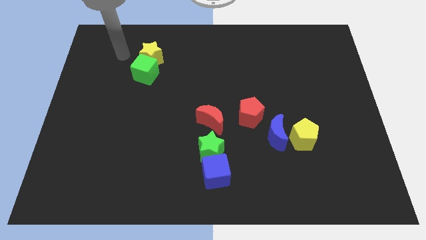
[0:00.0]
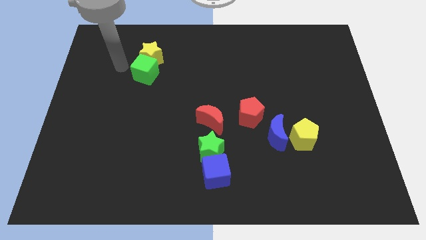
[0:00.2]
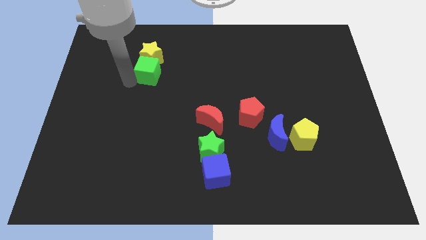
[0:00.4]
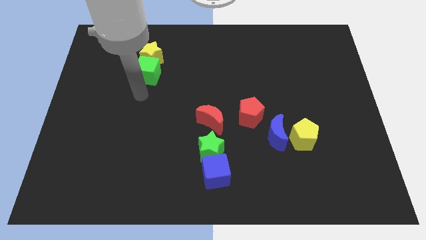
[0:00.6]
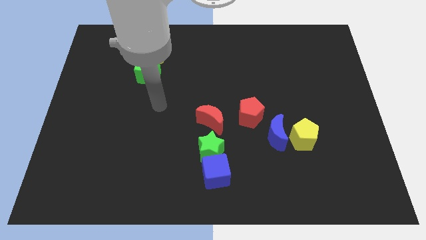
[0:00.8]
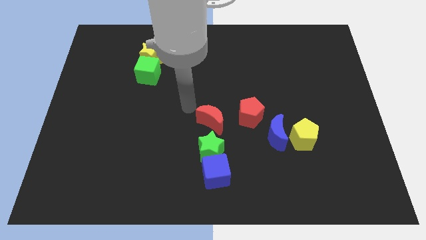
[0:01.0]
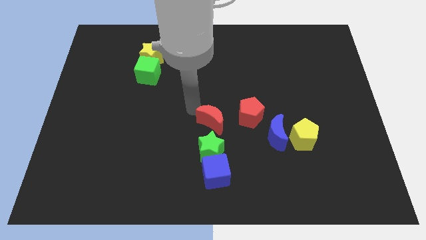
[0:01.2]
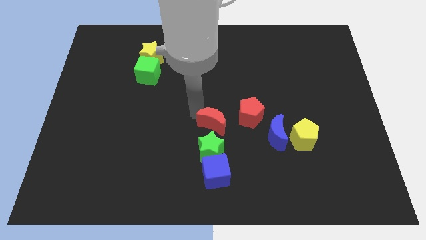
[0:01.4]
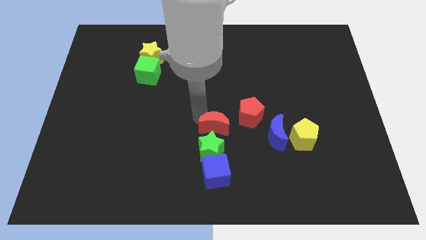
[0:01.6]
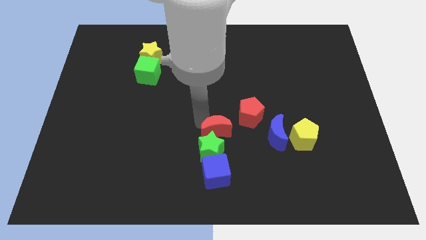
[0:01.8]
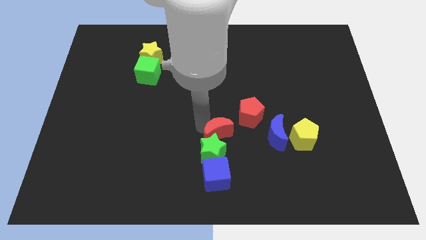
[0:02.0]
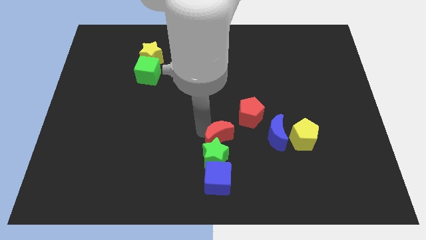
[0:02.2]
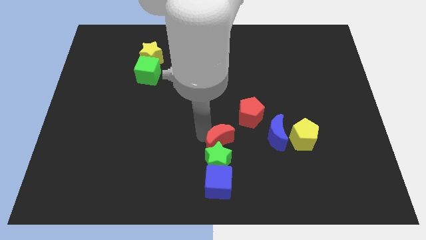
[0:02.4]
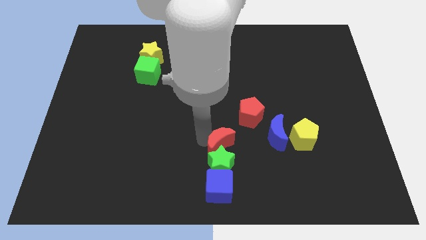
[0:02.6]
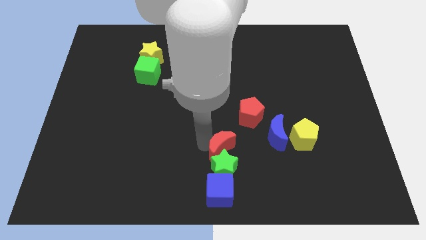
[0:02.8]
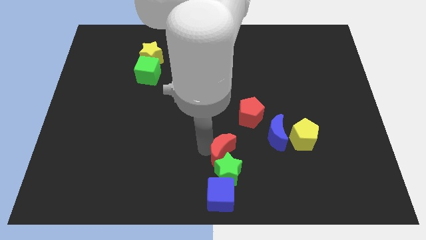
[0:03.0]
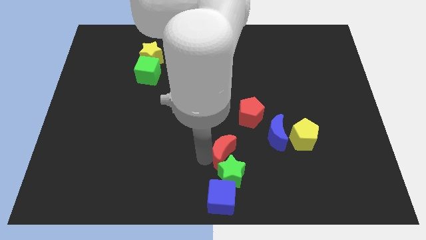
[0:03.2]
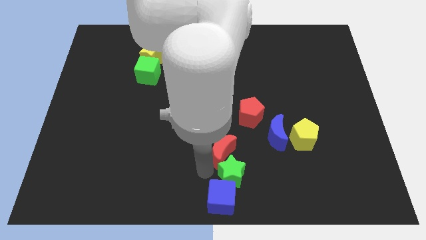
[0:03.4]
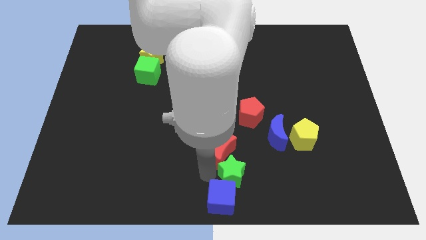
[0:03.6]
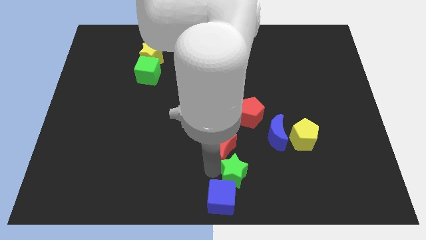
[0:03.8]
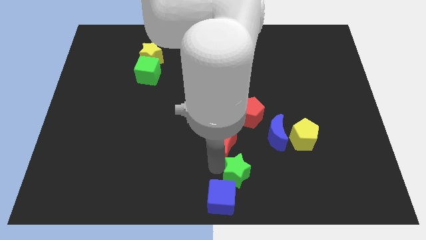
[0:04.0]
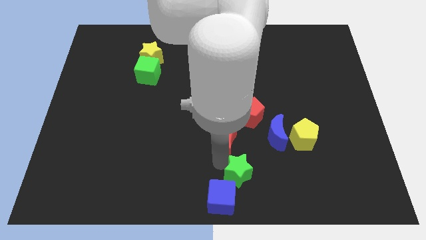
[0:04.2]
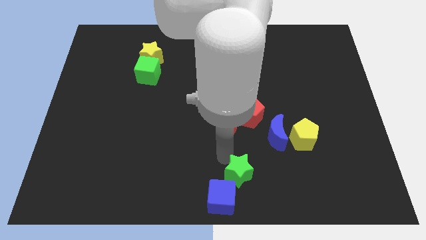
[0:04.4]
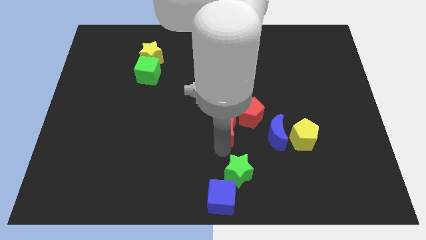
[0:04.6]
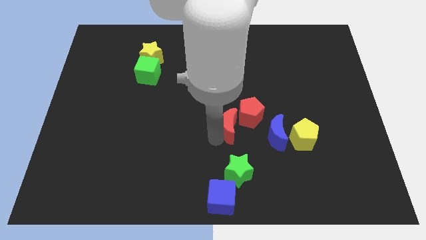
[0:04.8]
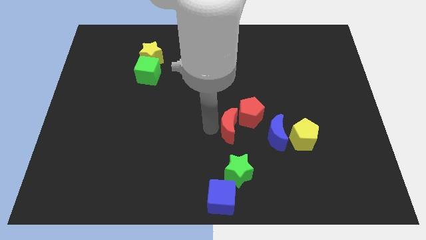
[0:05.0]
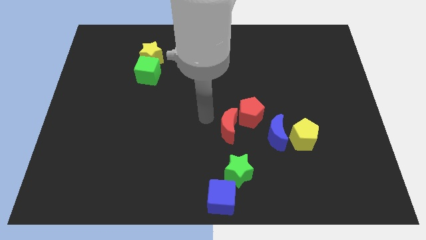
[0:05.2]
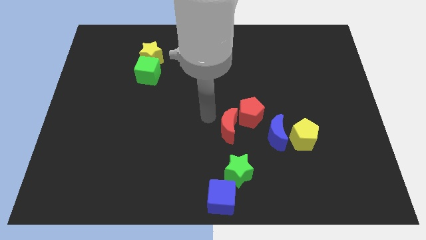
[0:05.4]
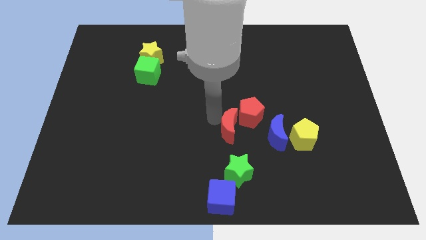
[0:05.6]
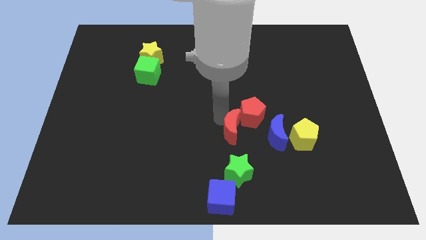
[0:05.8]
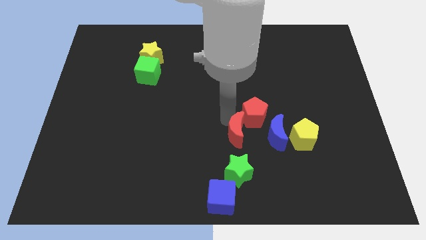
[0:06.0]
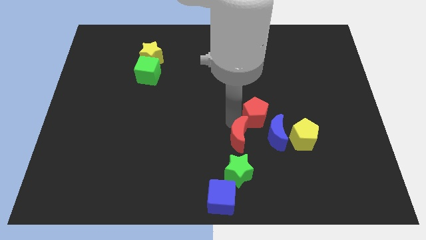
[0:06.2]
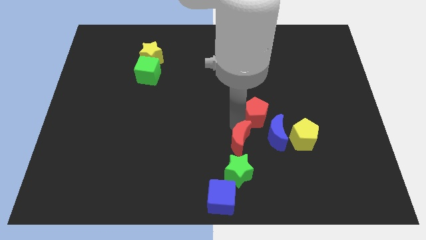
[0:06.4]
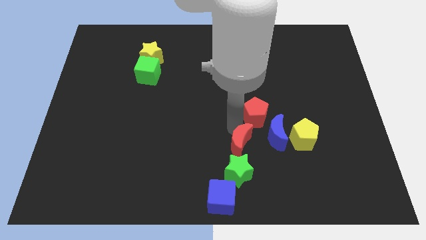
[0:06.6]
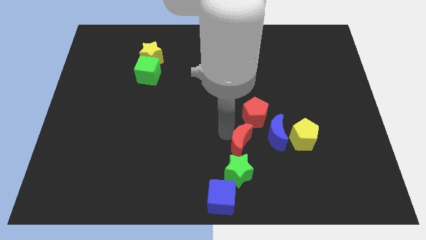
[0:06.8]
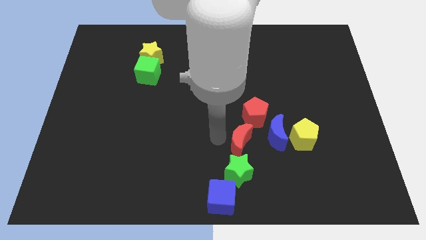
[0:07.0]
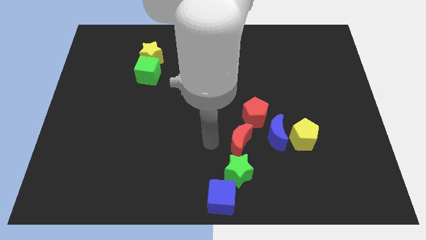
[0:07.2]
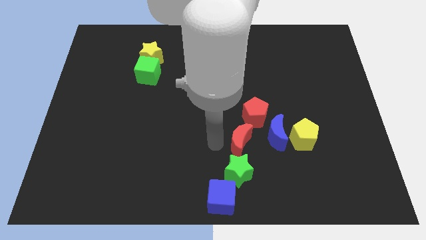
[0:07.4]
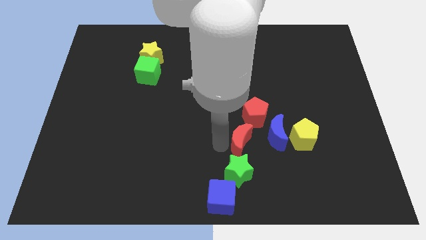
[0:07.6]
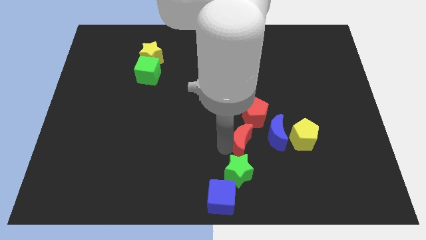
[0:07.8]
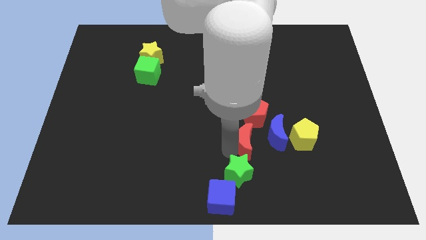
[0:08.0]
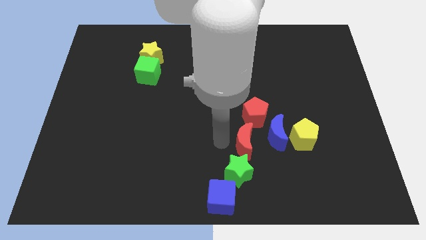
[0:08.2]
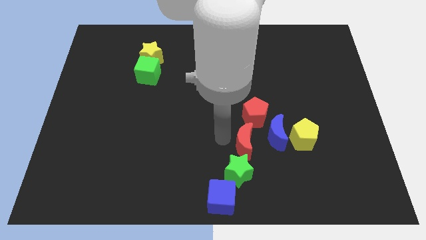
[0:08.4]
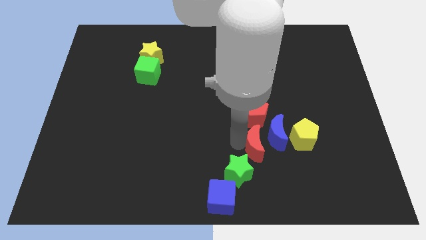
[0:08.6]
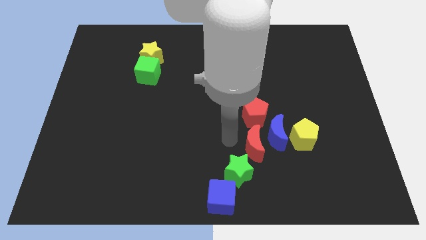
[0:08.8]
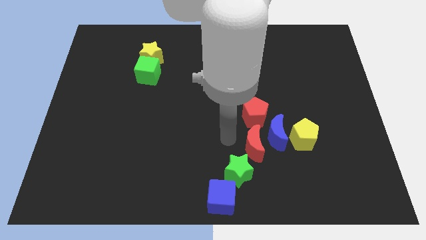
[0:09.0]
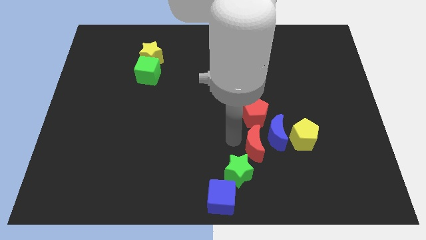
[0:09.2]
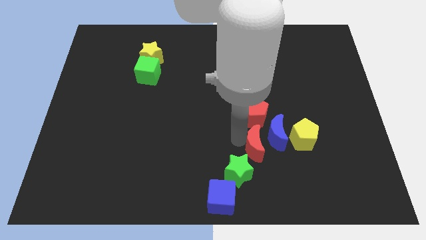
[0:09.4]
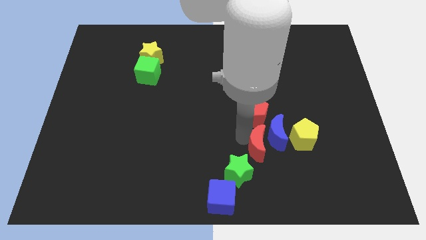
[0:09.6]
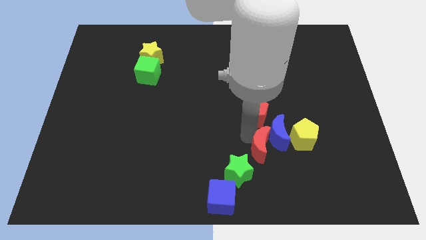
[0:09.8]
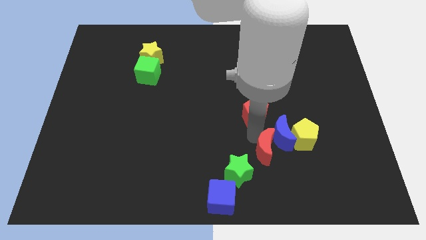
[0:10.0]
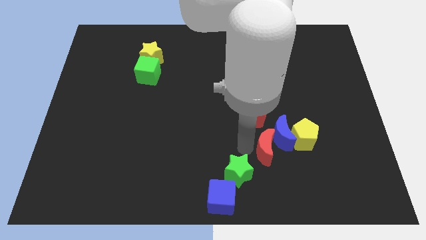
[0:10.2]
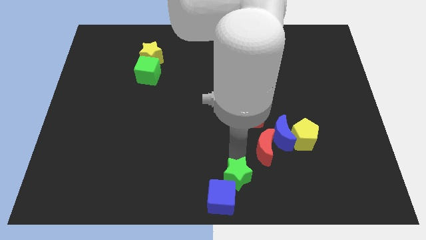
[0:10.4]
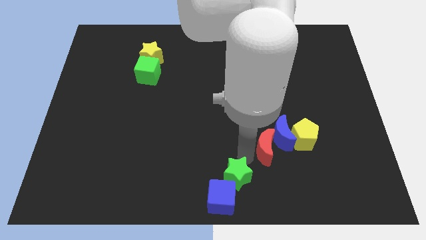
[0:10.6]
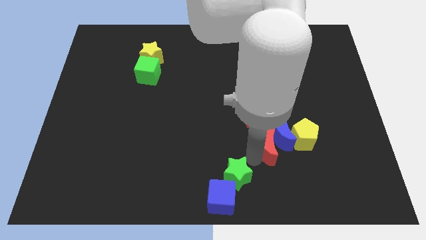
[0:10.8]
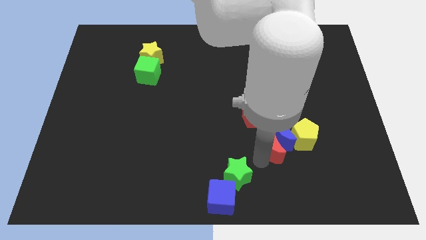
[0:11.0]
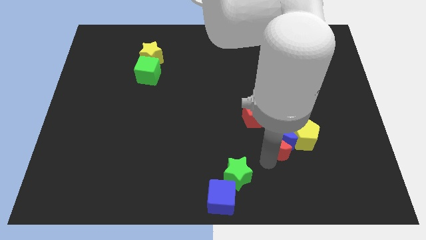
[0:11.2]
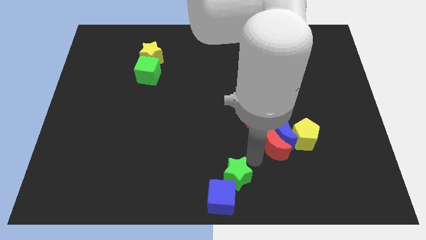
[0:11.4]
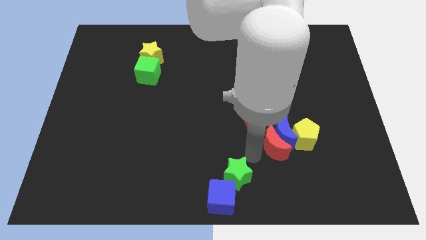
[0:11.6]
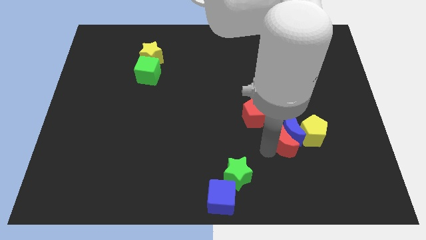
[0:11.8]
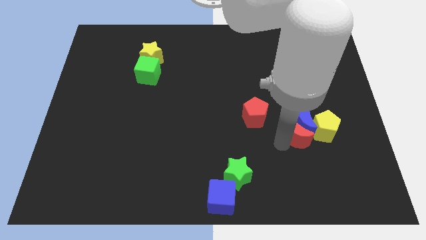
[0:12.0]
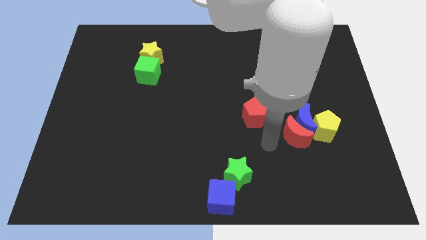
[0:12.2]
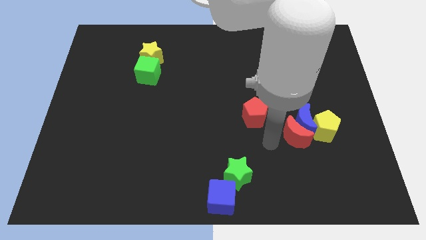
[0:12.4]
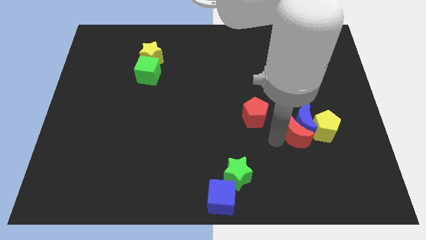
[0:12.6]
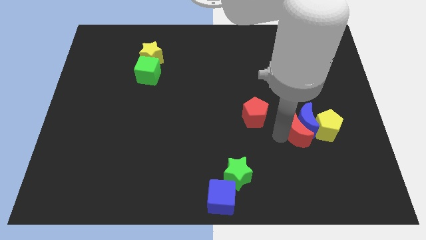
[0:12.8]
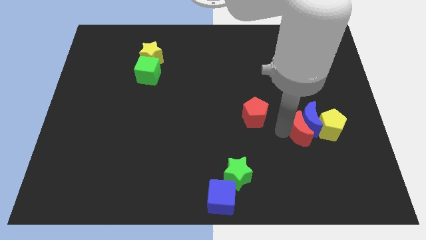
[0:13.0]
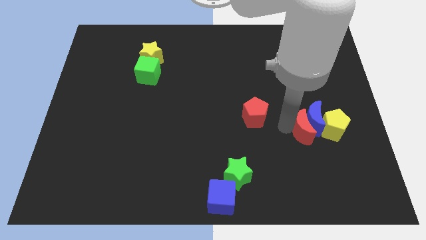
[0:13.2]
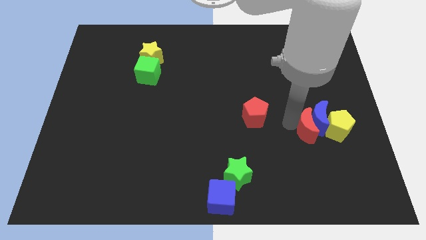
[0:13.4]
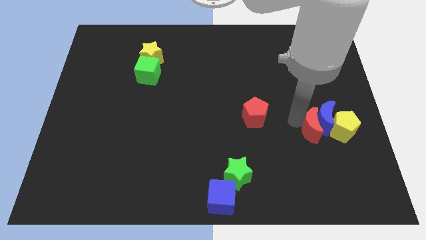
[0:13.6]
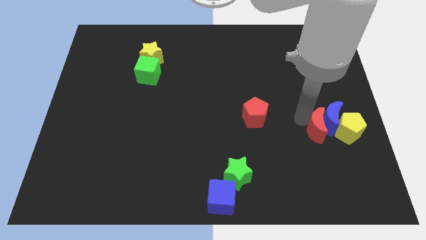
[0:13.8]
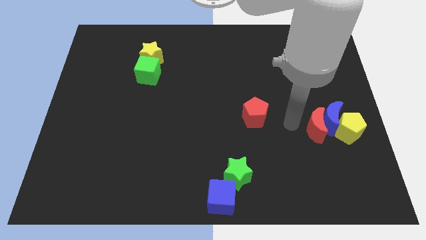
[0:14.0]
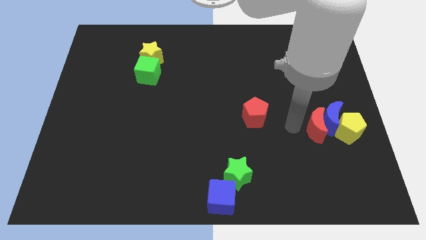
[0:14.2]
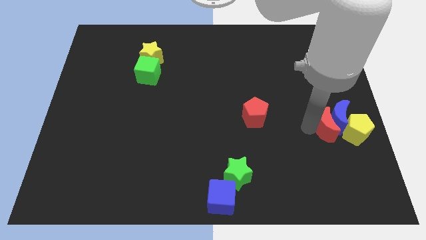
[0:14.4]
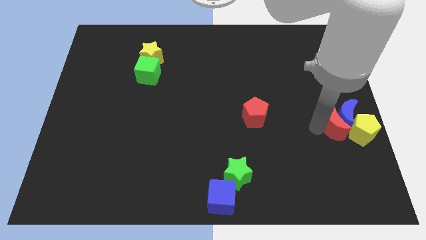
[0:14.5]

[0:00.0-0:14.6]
slide the red moon to the yellow pentagon

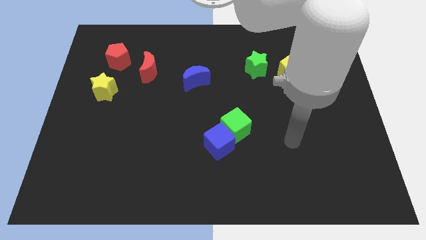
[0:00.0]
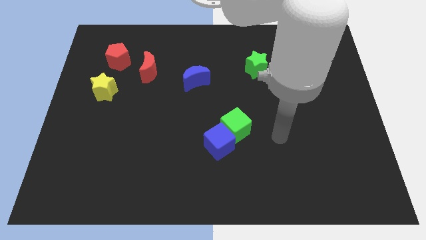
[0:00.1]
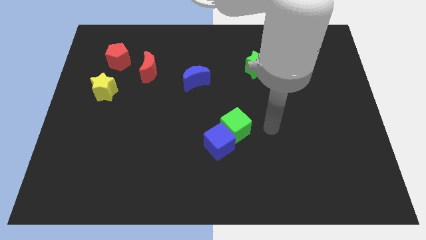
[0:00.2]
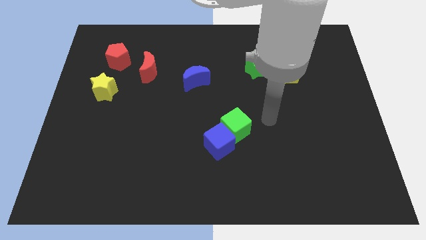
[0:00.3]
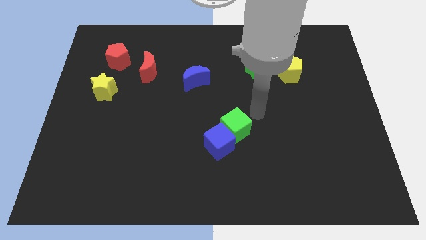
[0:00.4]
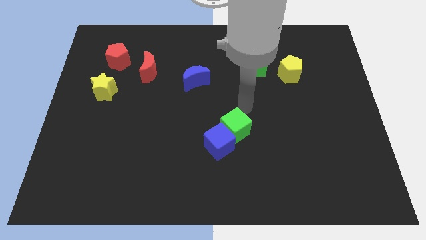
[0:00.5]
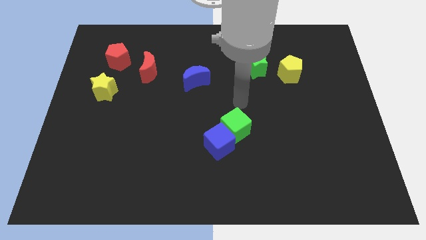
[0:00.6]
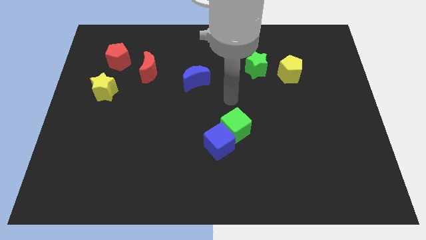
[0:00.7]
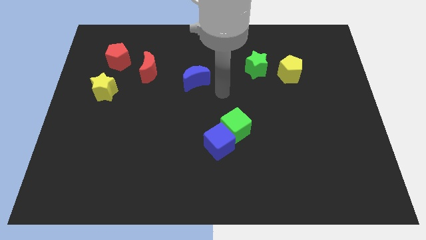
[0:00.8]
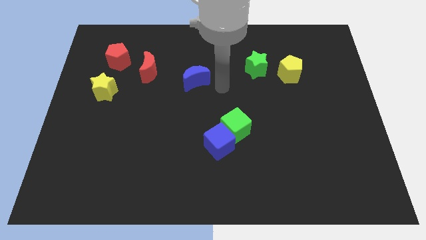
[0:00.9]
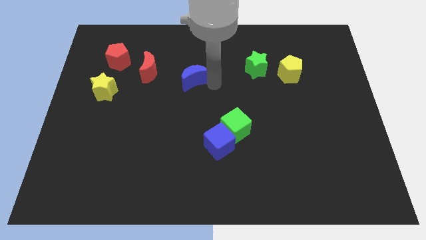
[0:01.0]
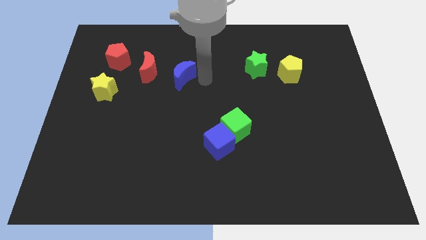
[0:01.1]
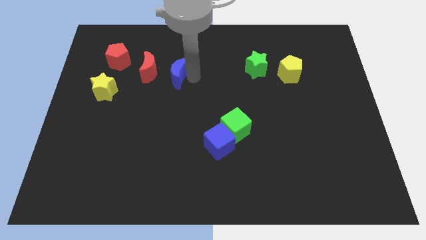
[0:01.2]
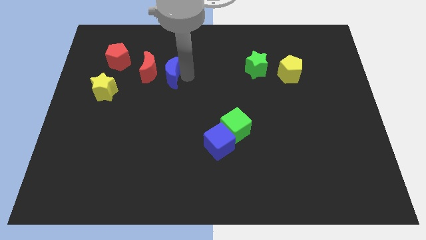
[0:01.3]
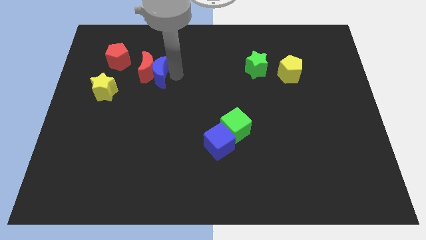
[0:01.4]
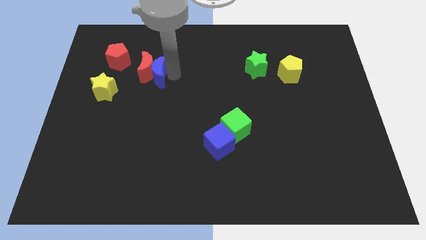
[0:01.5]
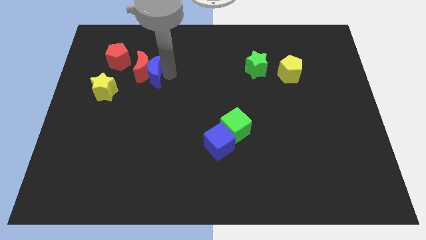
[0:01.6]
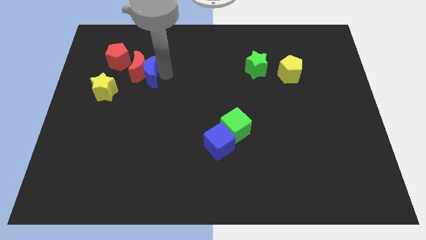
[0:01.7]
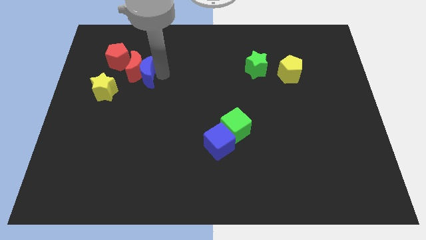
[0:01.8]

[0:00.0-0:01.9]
slide the red moon to the red pentagon
